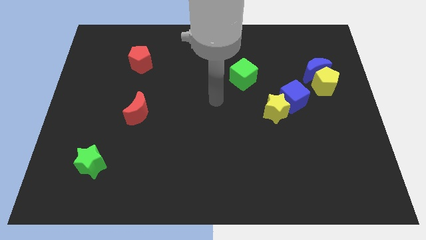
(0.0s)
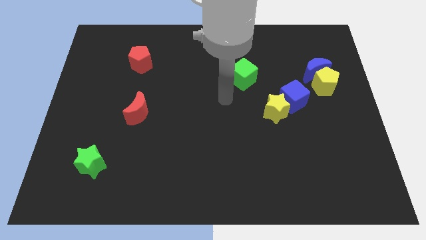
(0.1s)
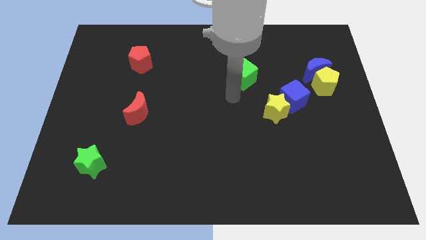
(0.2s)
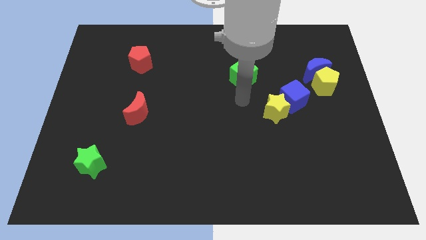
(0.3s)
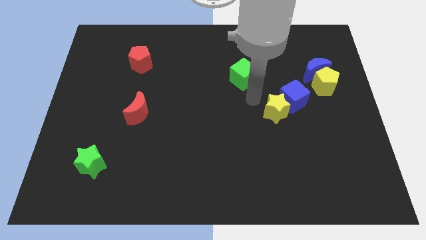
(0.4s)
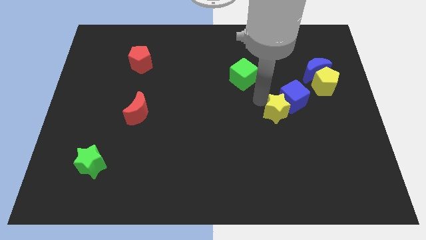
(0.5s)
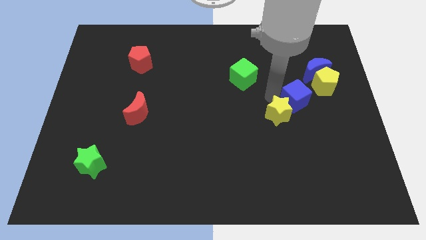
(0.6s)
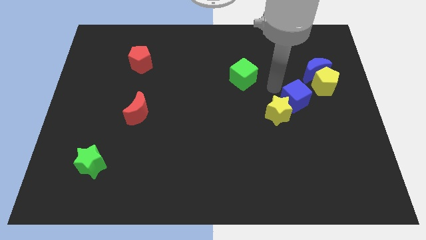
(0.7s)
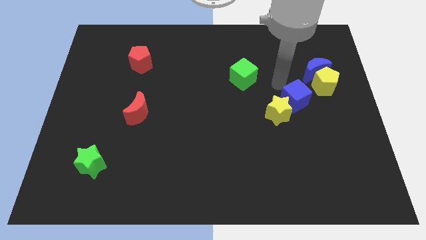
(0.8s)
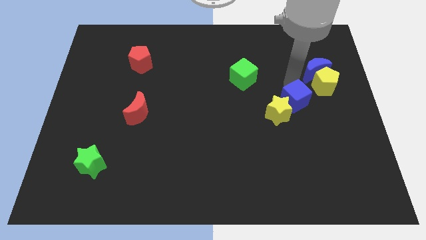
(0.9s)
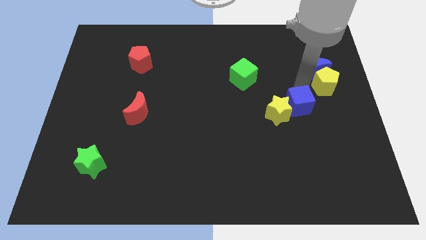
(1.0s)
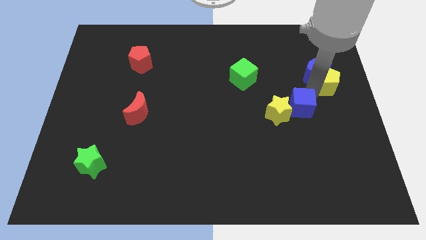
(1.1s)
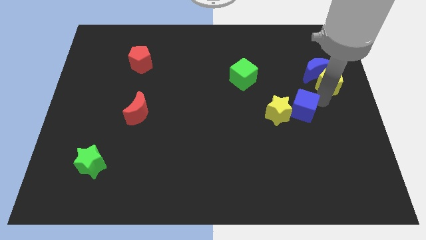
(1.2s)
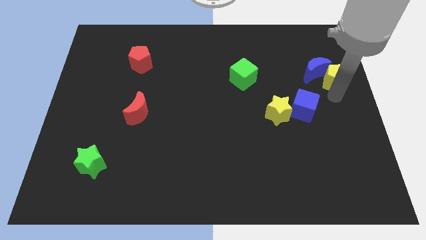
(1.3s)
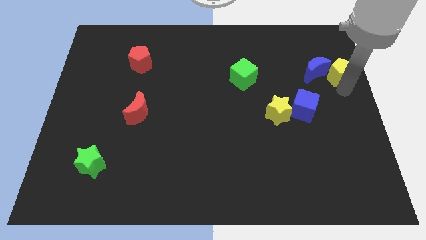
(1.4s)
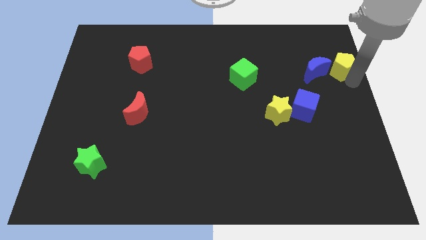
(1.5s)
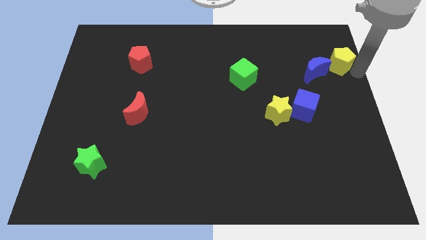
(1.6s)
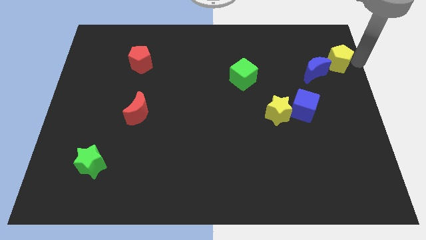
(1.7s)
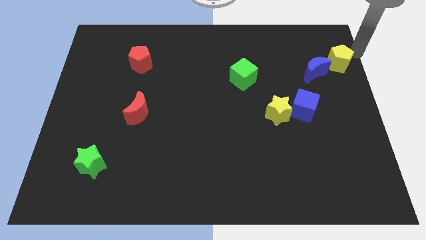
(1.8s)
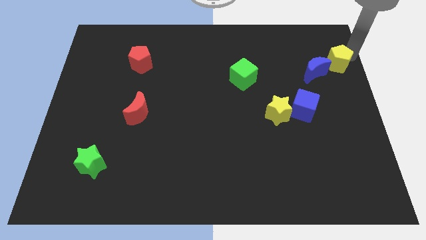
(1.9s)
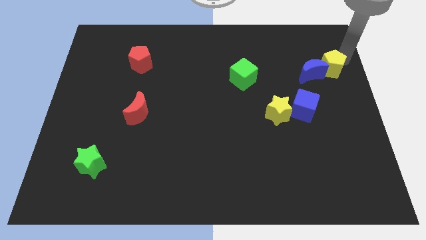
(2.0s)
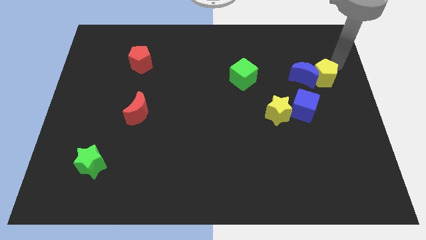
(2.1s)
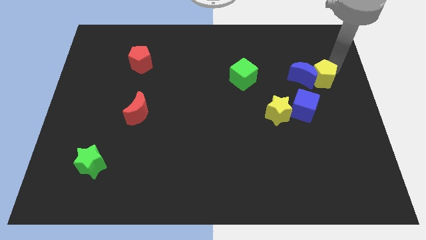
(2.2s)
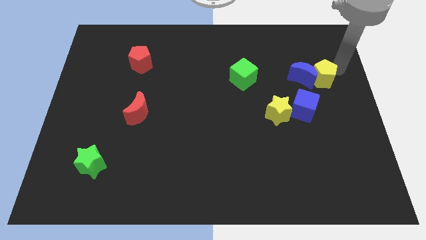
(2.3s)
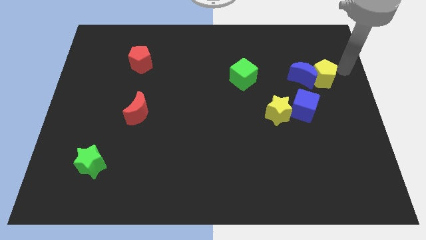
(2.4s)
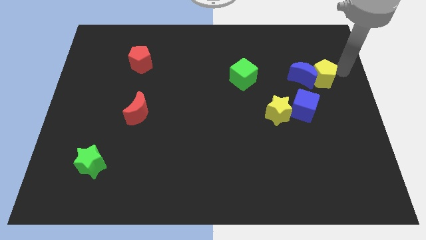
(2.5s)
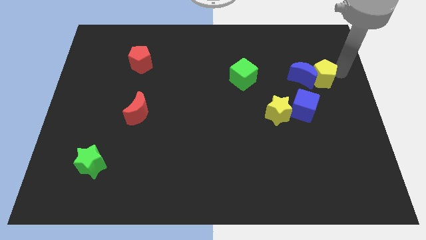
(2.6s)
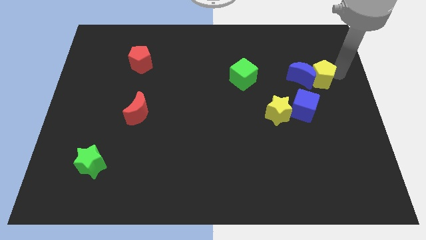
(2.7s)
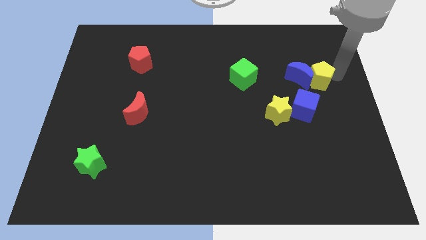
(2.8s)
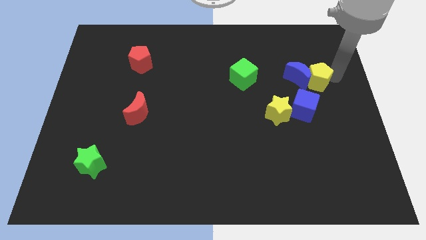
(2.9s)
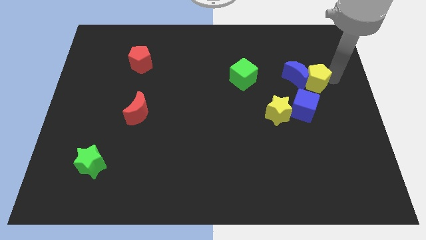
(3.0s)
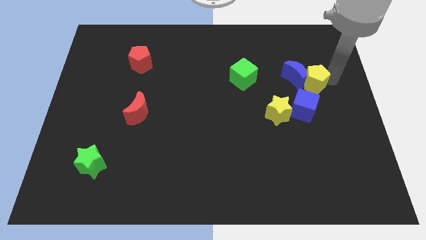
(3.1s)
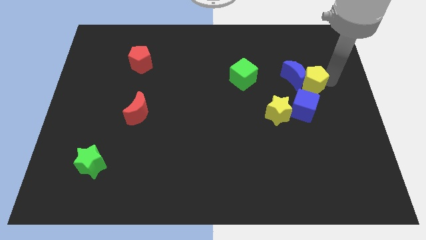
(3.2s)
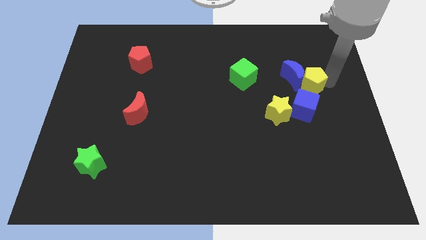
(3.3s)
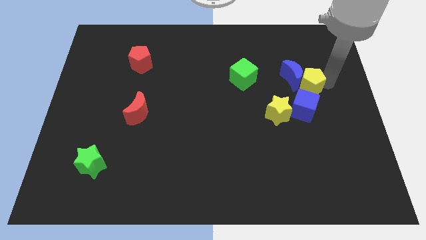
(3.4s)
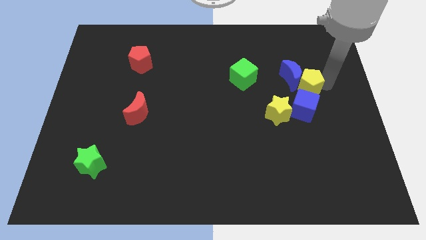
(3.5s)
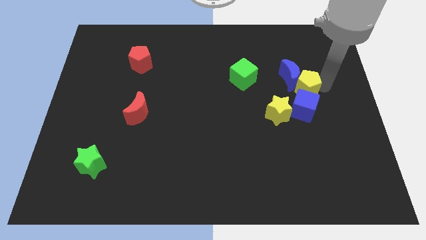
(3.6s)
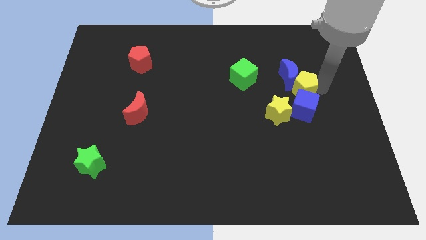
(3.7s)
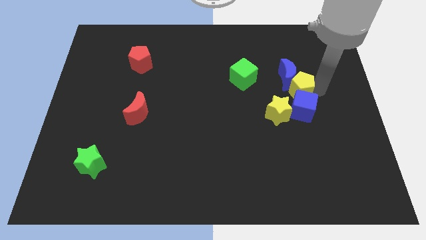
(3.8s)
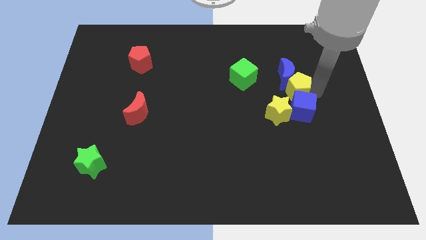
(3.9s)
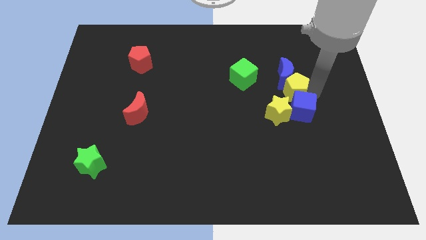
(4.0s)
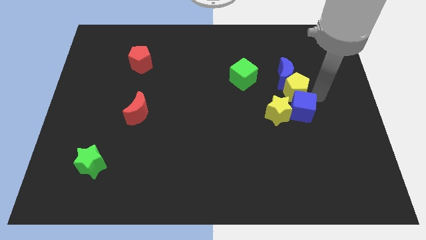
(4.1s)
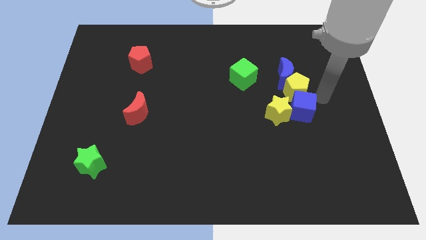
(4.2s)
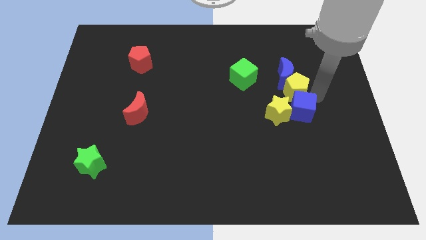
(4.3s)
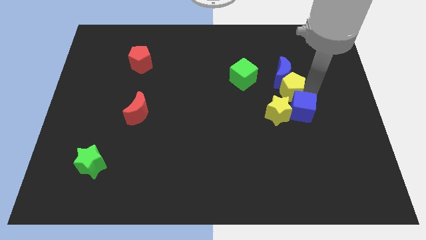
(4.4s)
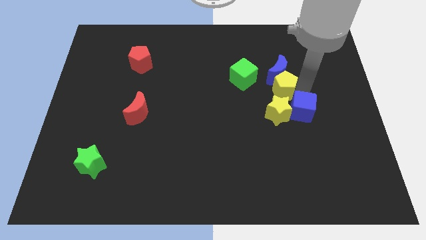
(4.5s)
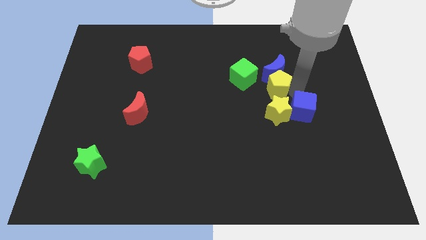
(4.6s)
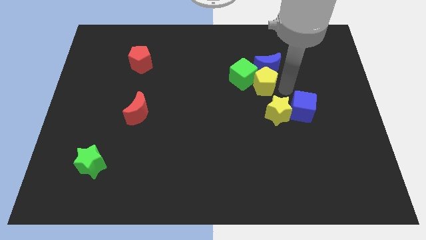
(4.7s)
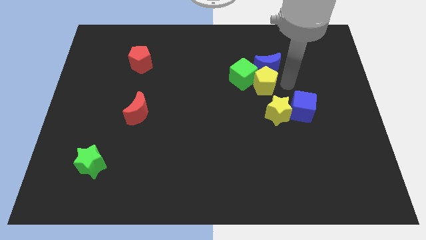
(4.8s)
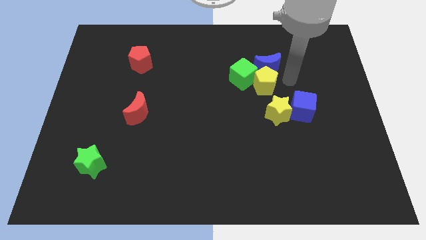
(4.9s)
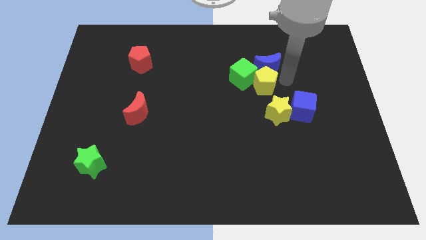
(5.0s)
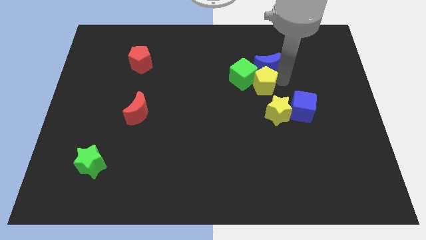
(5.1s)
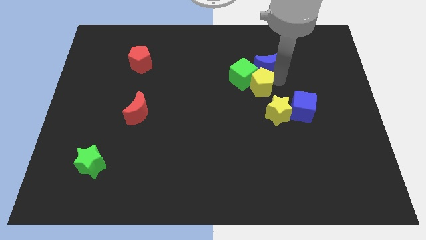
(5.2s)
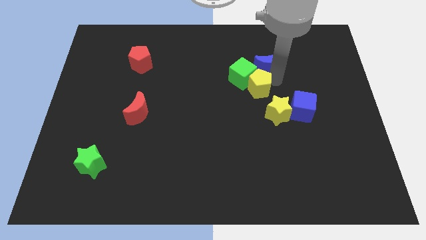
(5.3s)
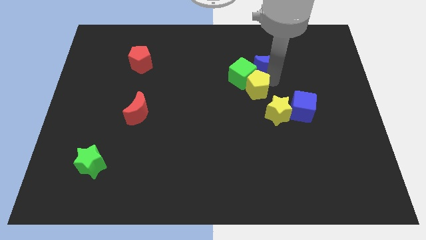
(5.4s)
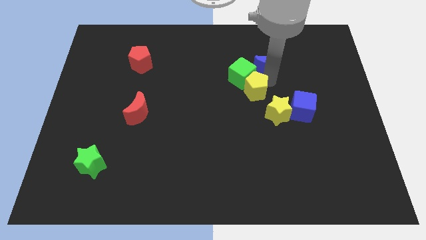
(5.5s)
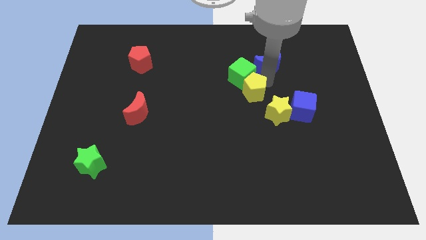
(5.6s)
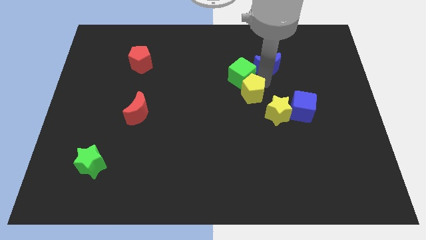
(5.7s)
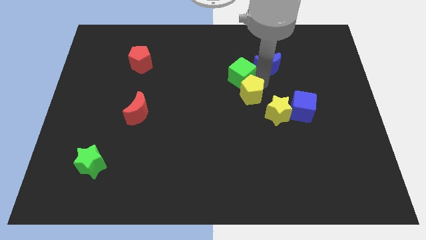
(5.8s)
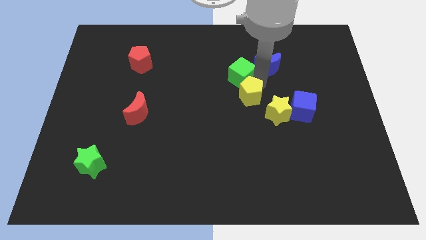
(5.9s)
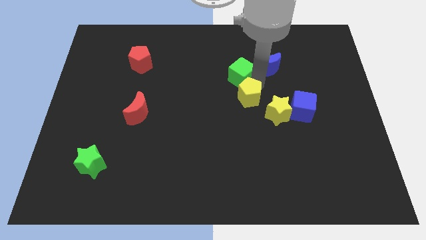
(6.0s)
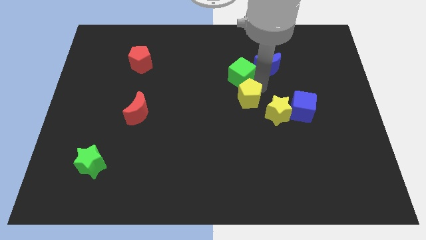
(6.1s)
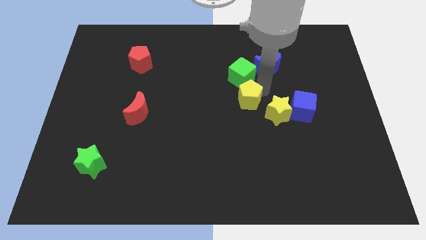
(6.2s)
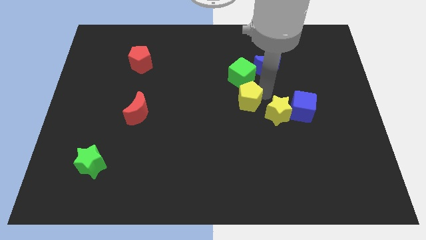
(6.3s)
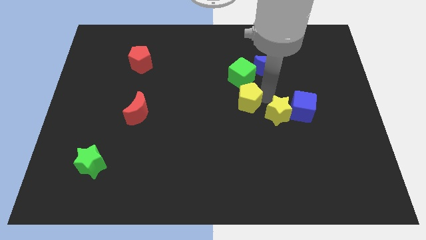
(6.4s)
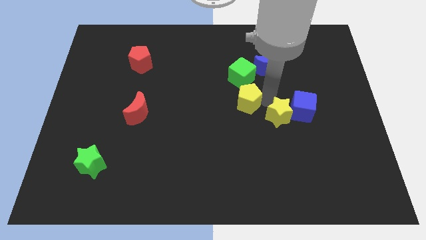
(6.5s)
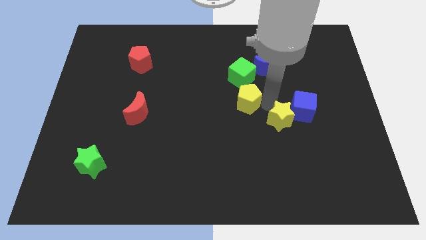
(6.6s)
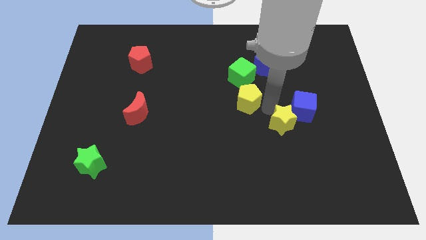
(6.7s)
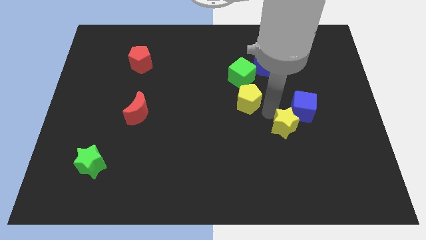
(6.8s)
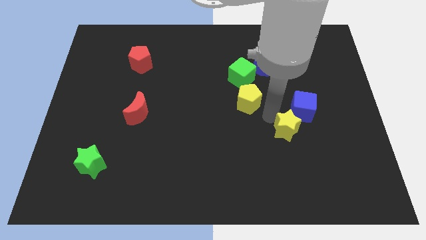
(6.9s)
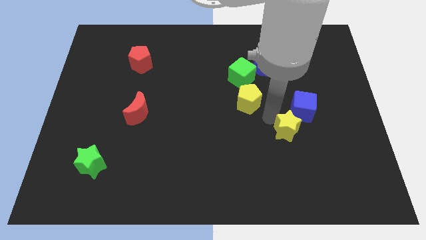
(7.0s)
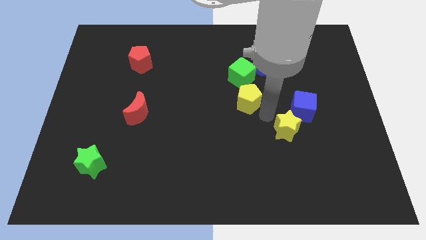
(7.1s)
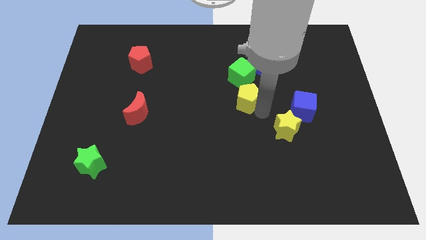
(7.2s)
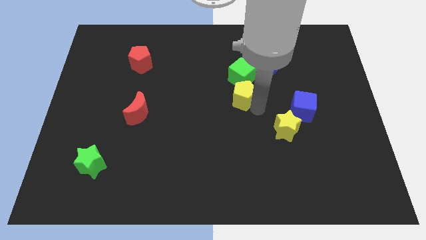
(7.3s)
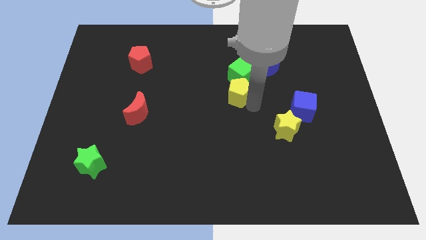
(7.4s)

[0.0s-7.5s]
slide the yellow pentagon to the left

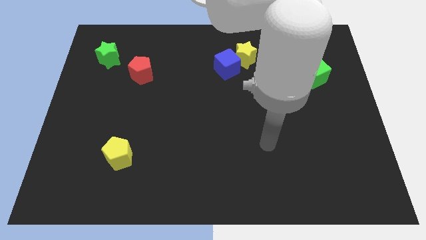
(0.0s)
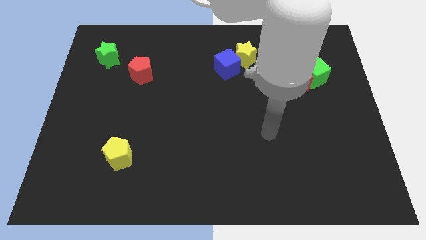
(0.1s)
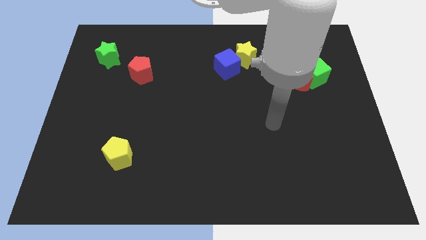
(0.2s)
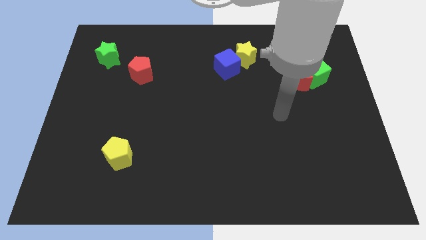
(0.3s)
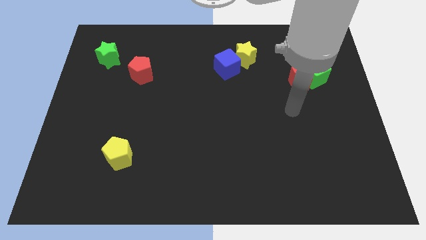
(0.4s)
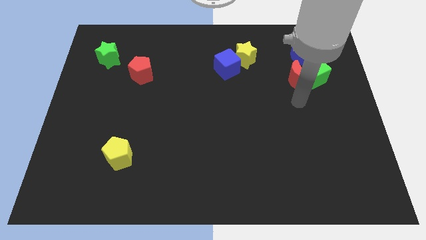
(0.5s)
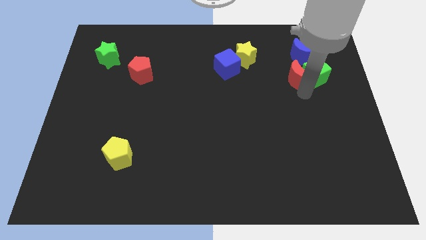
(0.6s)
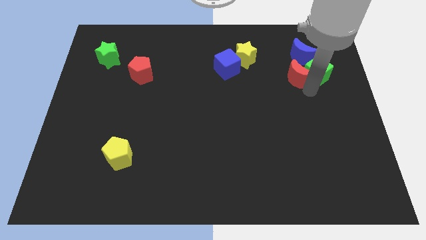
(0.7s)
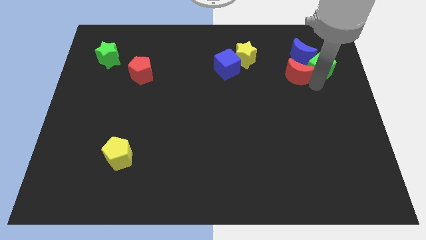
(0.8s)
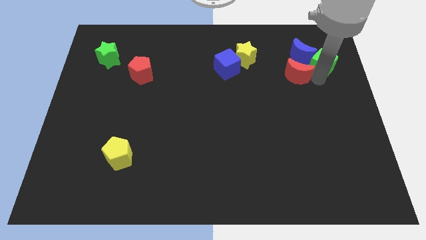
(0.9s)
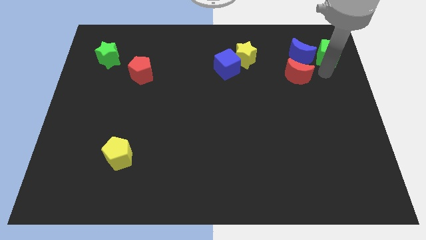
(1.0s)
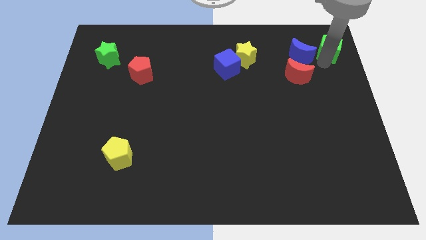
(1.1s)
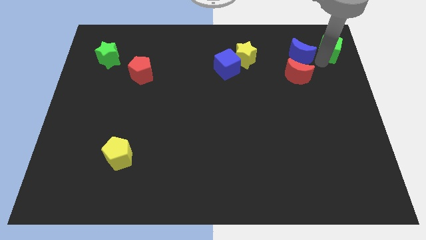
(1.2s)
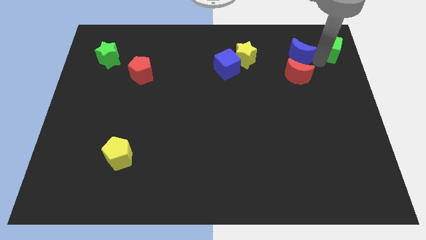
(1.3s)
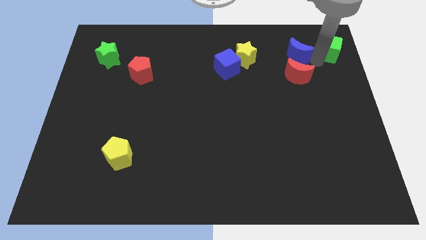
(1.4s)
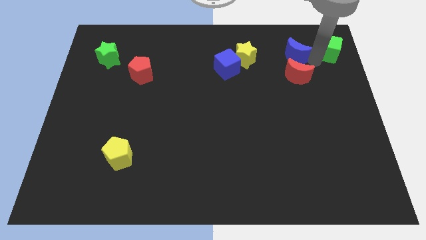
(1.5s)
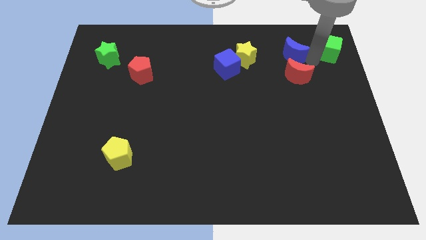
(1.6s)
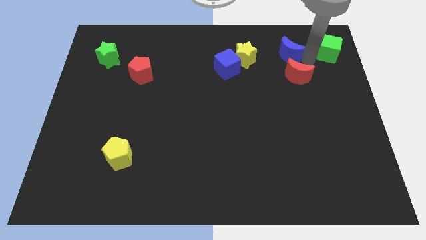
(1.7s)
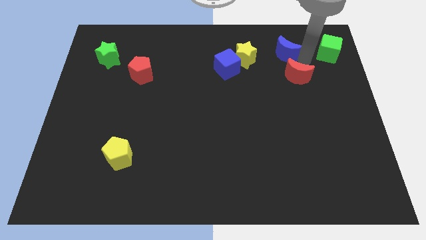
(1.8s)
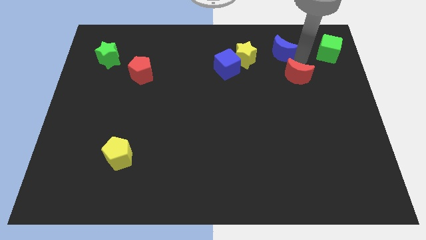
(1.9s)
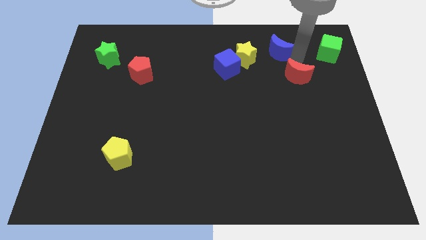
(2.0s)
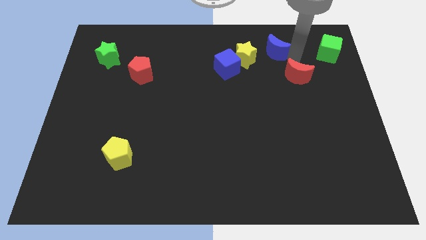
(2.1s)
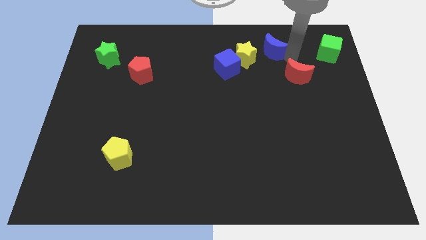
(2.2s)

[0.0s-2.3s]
slightly slide the blue moon to the left
